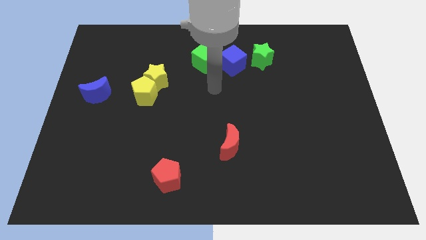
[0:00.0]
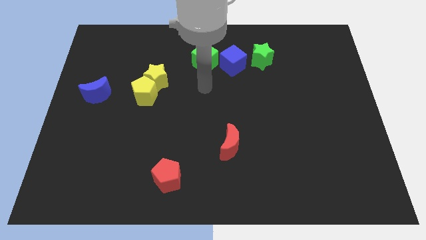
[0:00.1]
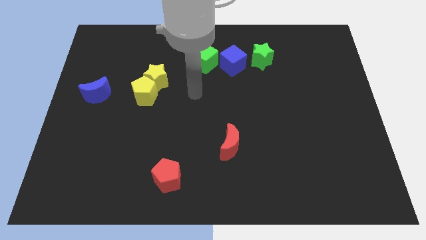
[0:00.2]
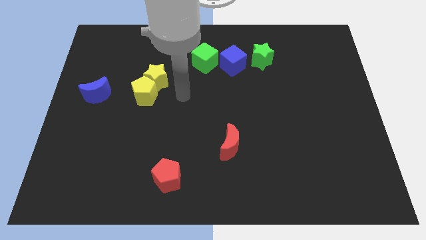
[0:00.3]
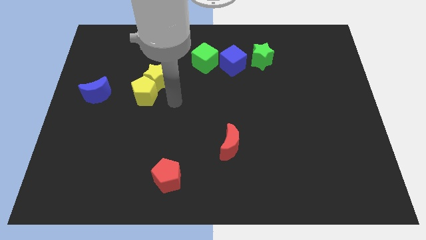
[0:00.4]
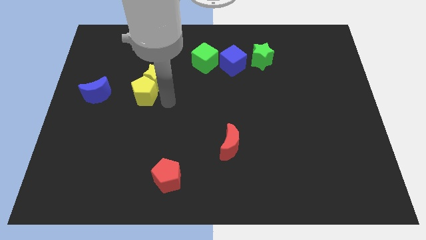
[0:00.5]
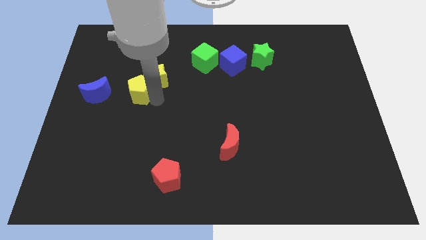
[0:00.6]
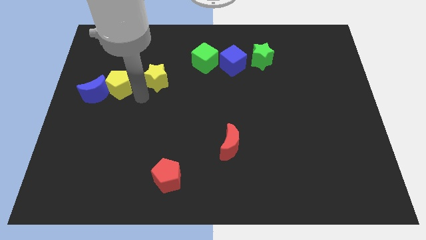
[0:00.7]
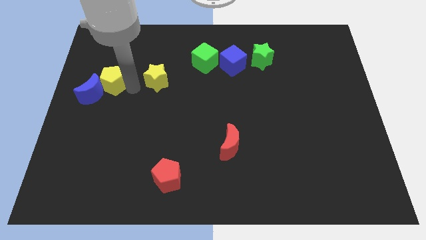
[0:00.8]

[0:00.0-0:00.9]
separate the yellow star from the yellow pentagon

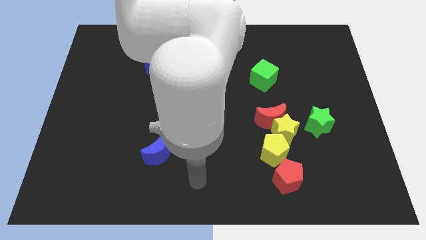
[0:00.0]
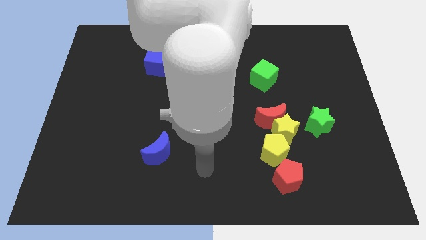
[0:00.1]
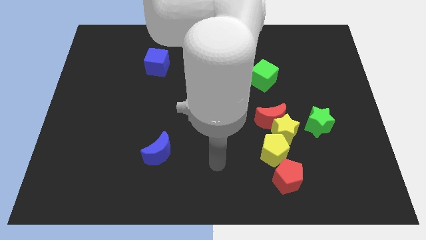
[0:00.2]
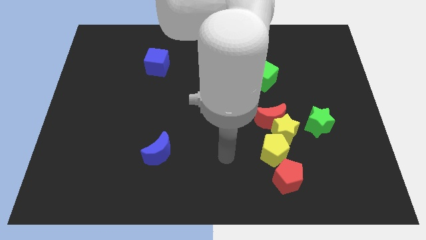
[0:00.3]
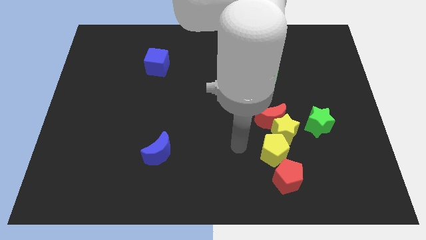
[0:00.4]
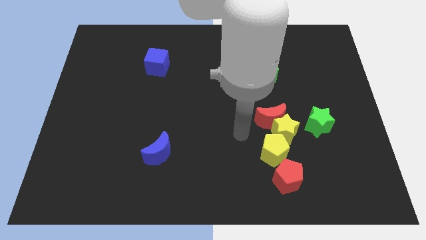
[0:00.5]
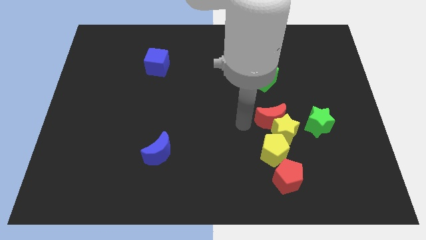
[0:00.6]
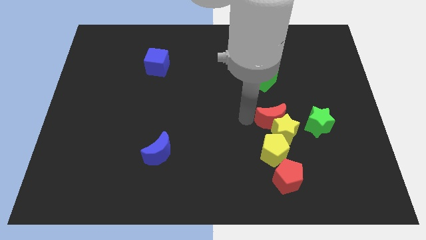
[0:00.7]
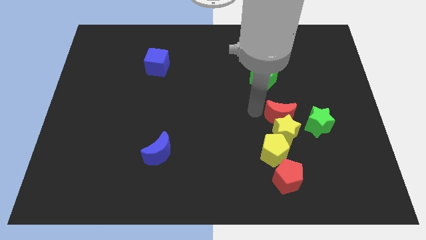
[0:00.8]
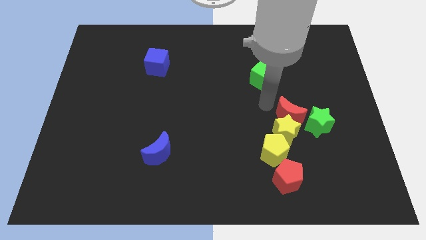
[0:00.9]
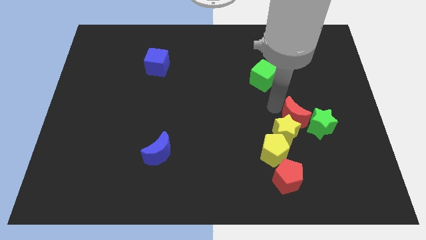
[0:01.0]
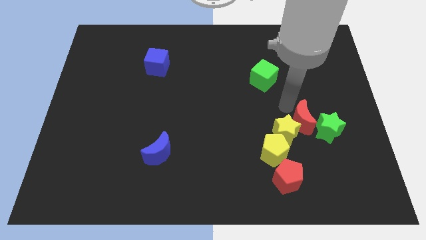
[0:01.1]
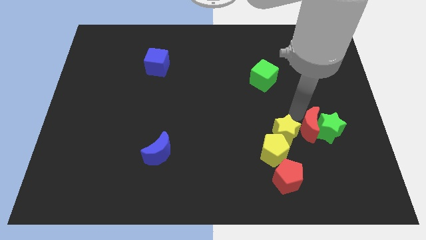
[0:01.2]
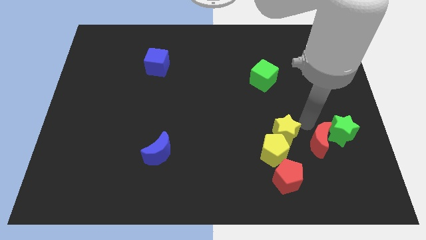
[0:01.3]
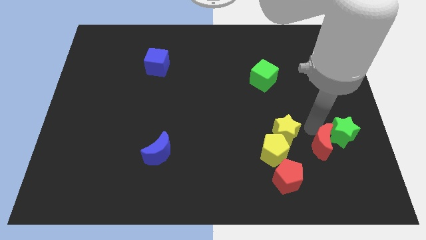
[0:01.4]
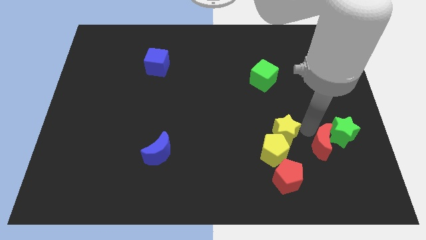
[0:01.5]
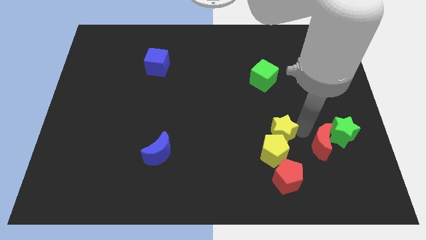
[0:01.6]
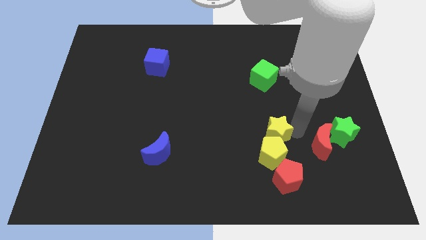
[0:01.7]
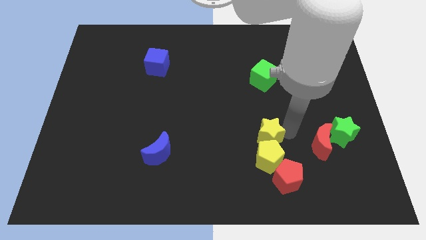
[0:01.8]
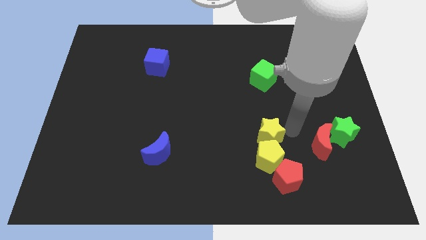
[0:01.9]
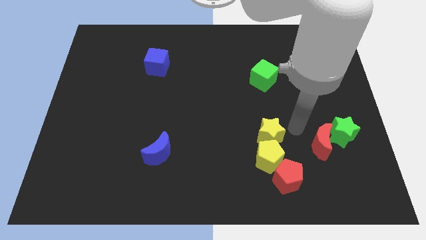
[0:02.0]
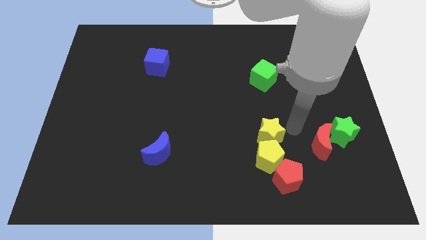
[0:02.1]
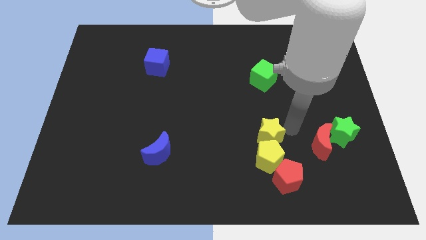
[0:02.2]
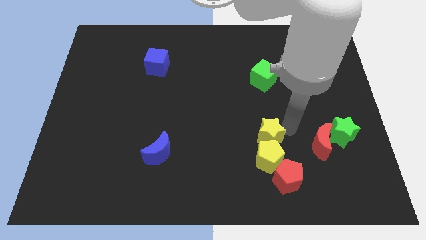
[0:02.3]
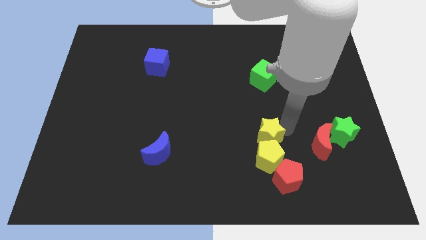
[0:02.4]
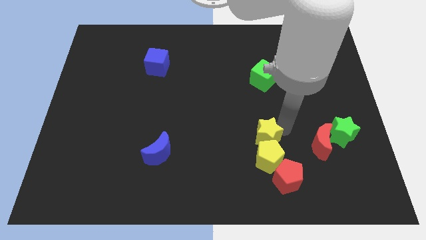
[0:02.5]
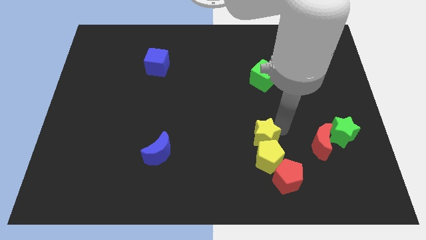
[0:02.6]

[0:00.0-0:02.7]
move the yellow star away from the clump

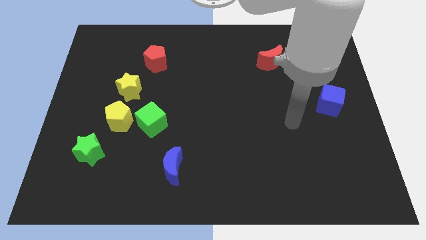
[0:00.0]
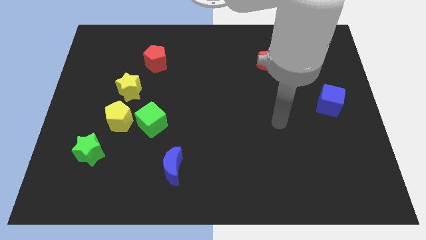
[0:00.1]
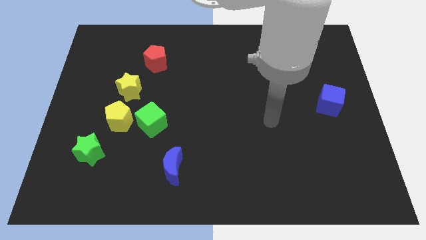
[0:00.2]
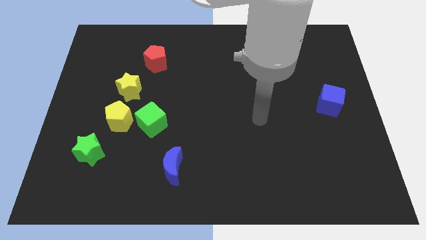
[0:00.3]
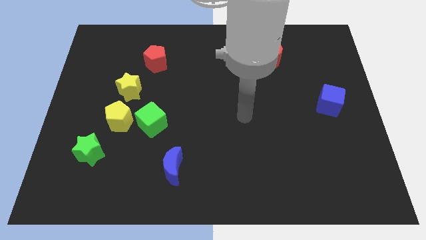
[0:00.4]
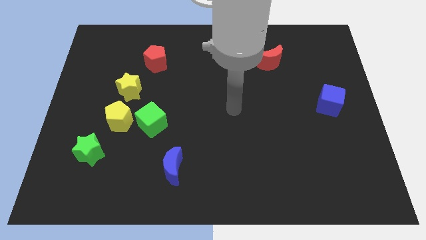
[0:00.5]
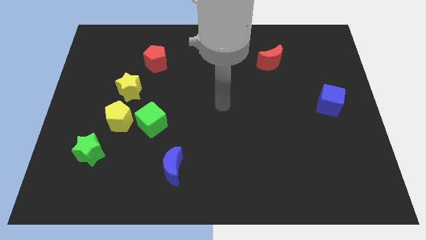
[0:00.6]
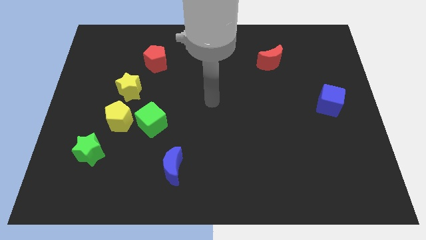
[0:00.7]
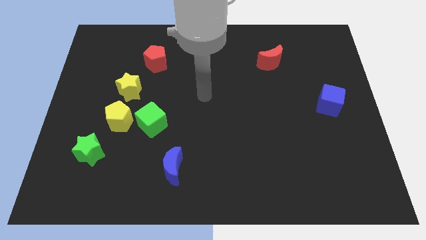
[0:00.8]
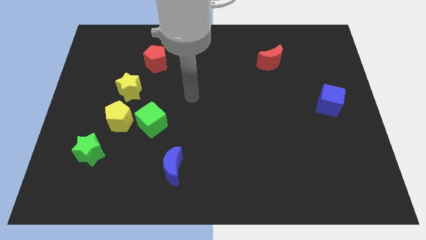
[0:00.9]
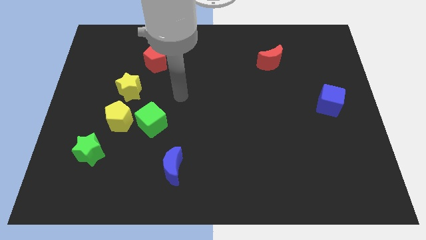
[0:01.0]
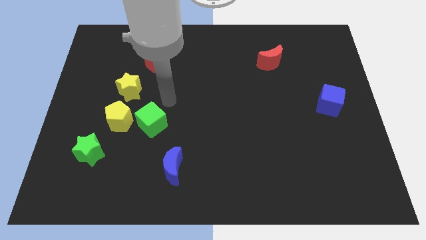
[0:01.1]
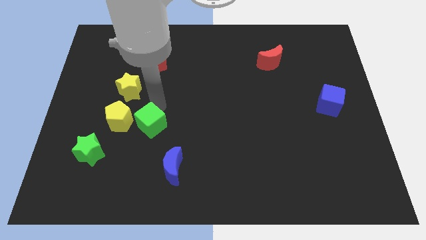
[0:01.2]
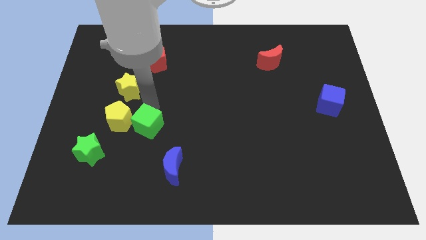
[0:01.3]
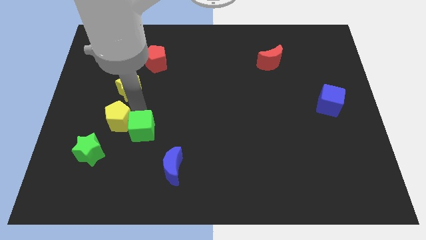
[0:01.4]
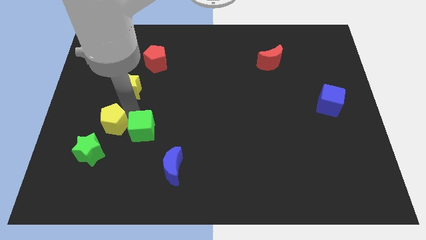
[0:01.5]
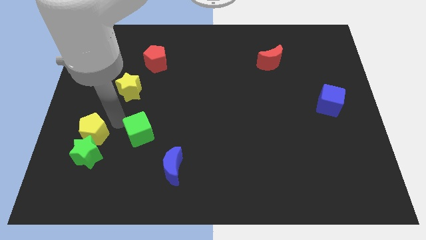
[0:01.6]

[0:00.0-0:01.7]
pull the green cube apart from the yellow pentagon

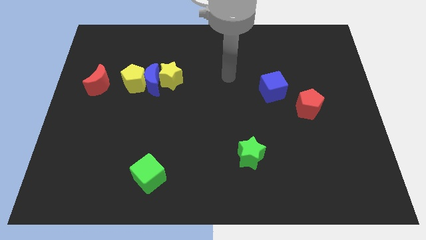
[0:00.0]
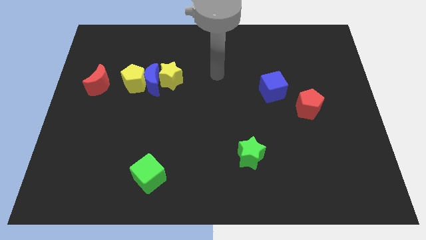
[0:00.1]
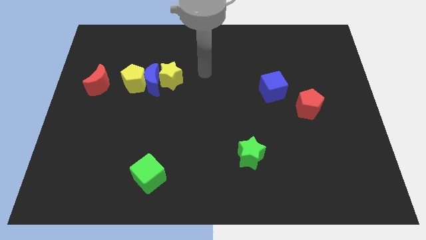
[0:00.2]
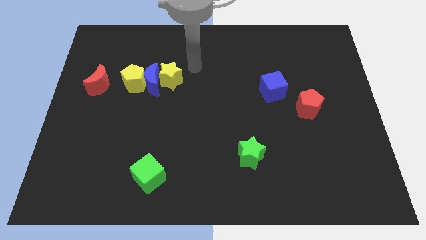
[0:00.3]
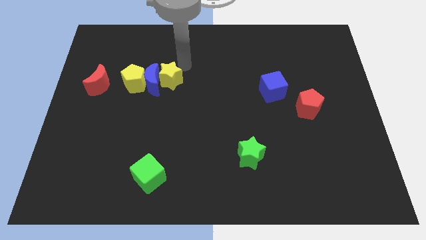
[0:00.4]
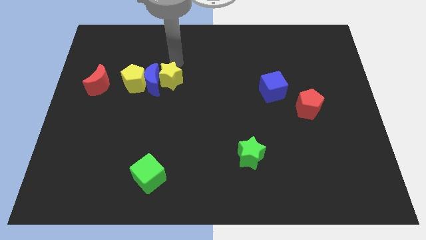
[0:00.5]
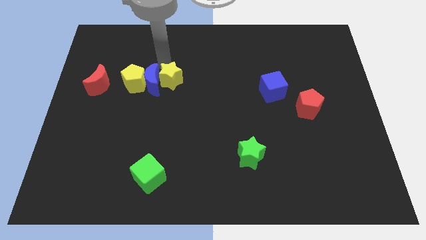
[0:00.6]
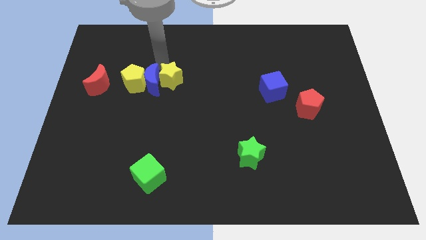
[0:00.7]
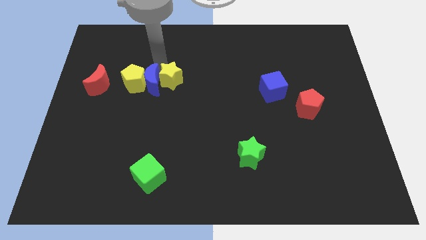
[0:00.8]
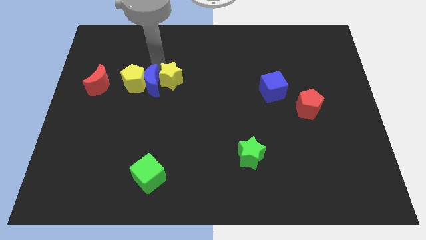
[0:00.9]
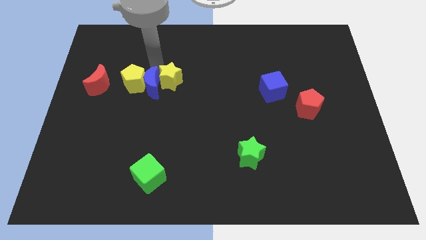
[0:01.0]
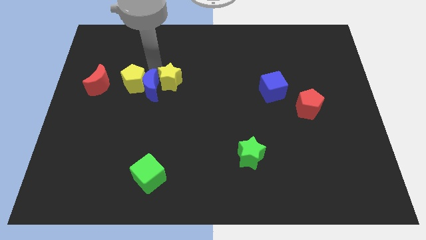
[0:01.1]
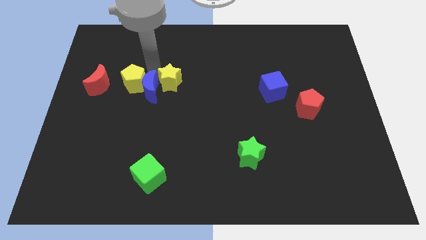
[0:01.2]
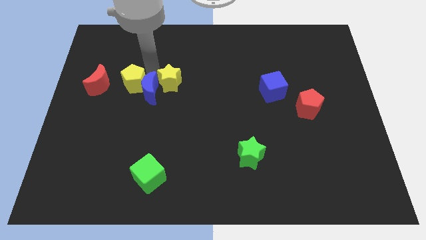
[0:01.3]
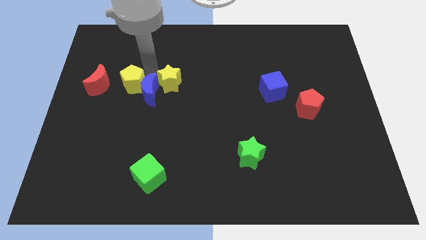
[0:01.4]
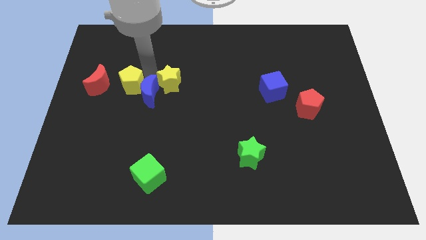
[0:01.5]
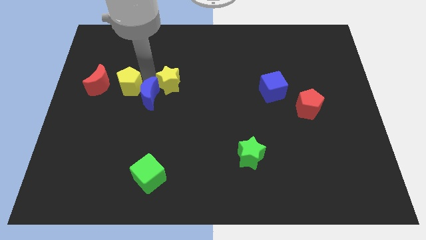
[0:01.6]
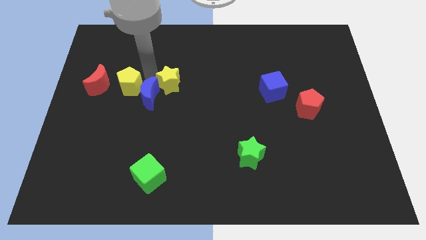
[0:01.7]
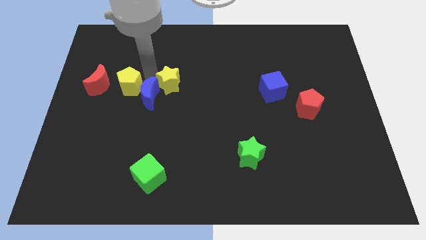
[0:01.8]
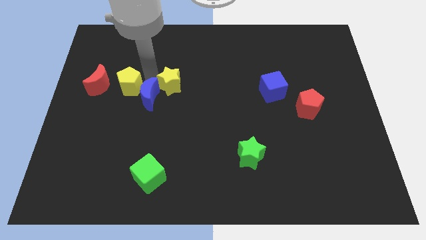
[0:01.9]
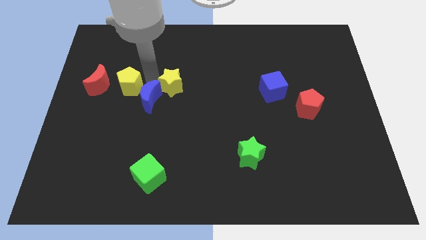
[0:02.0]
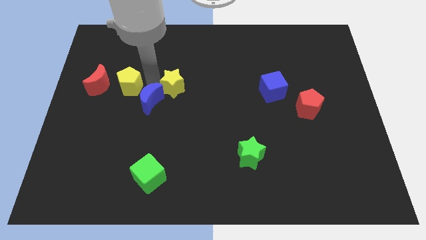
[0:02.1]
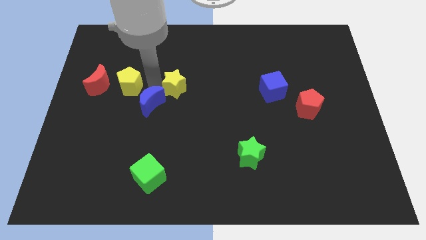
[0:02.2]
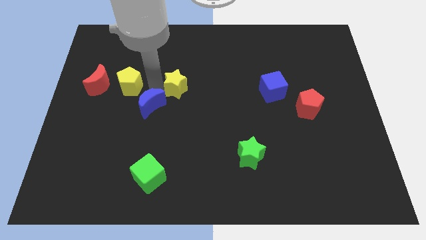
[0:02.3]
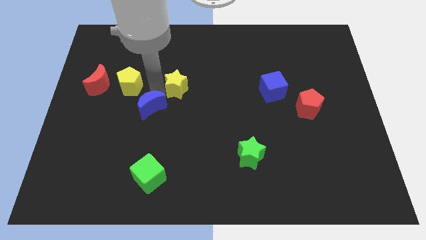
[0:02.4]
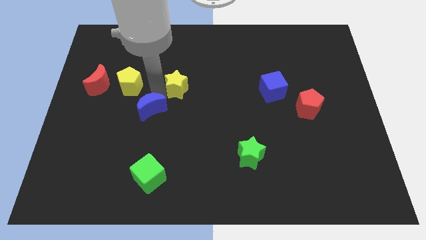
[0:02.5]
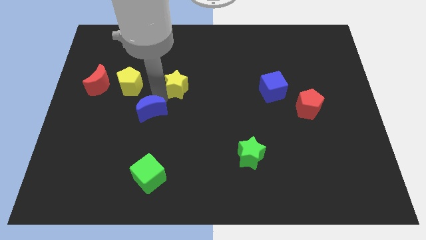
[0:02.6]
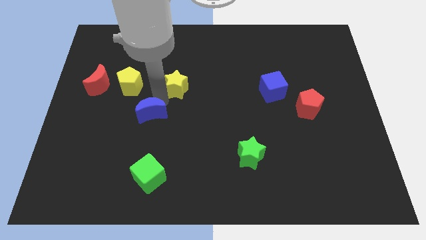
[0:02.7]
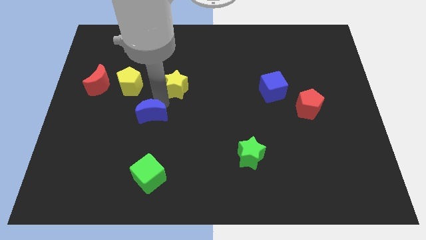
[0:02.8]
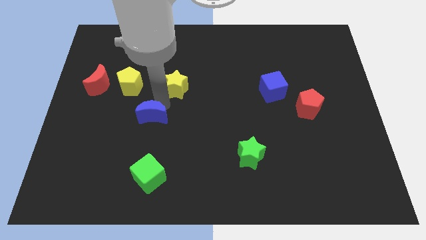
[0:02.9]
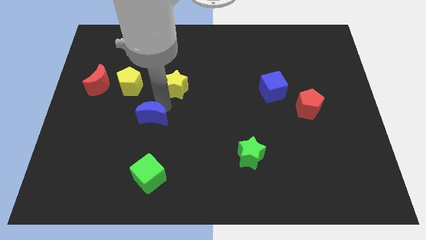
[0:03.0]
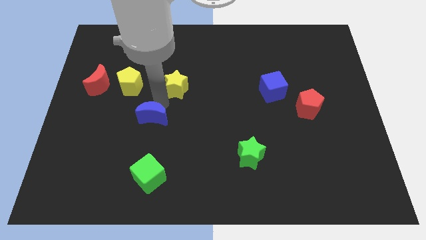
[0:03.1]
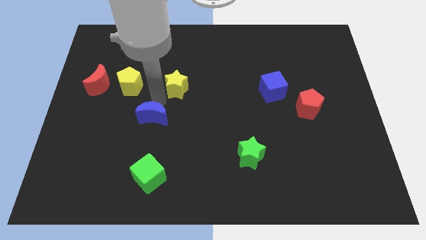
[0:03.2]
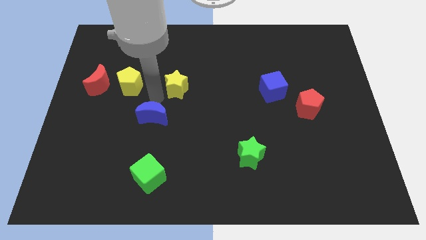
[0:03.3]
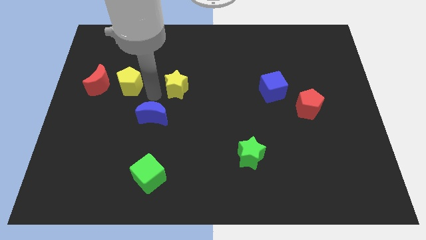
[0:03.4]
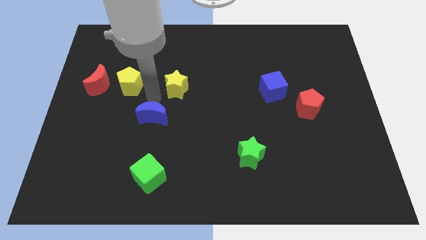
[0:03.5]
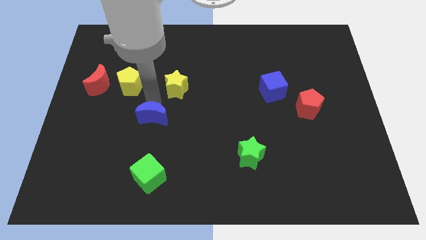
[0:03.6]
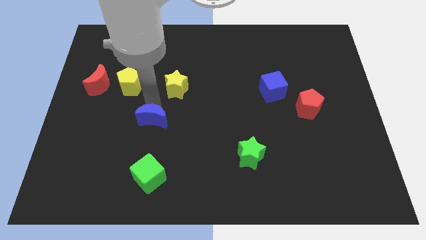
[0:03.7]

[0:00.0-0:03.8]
separate the blue moon from the yellow pentagon and yellow star

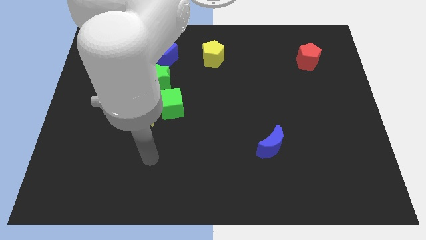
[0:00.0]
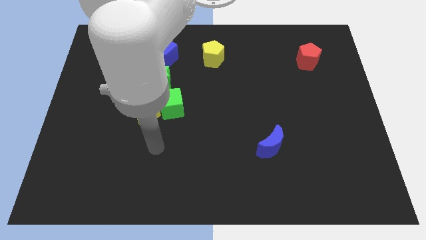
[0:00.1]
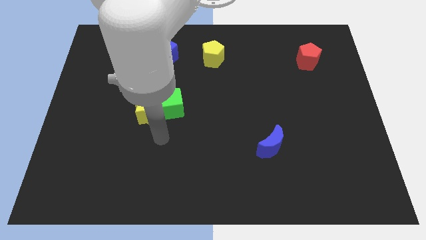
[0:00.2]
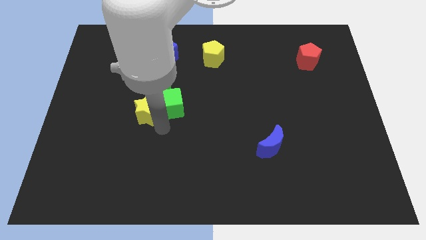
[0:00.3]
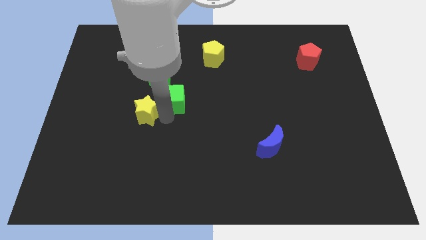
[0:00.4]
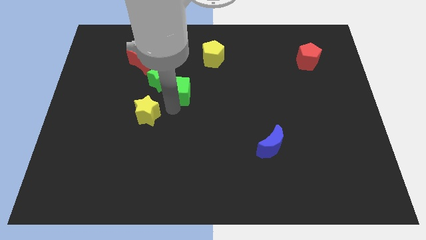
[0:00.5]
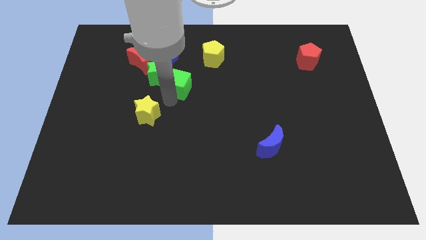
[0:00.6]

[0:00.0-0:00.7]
pull the yellow star apart from the green cube
